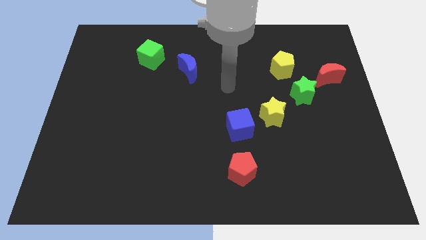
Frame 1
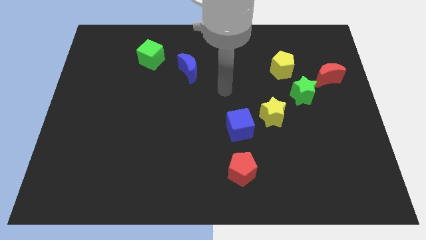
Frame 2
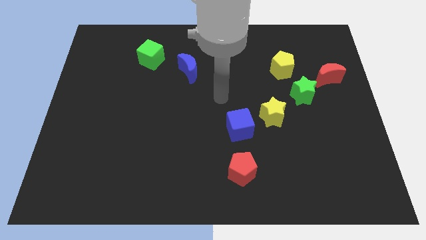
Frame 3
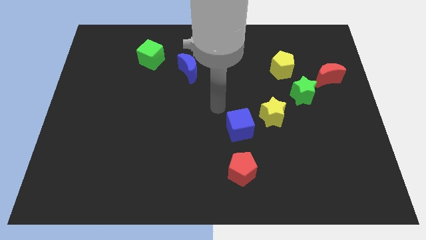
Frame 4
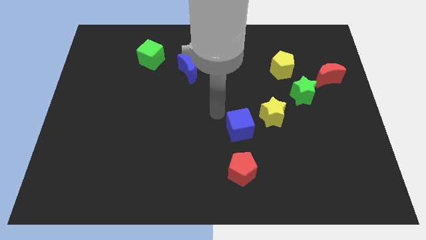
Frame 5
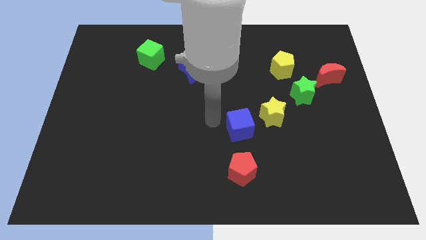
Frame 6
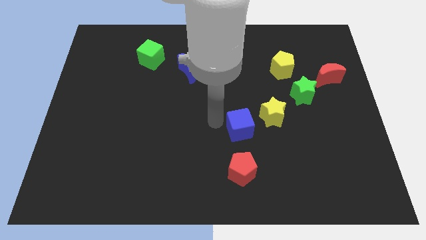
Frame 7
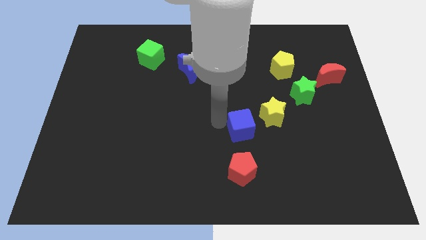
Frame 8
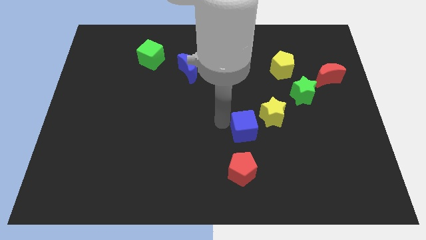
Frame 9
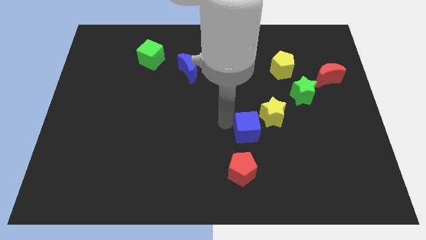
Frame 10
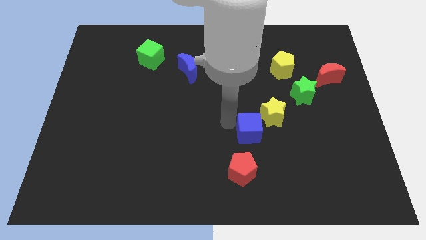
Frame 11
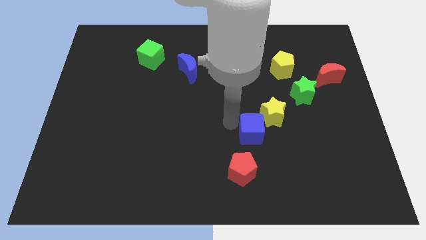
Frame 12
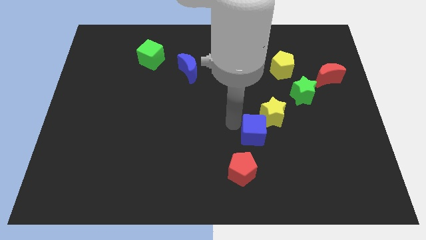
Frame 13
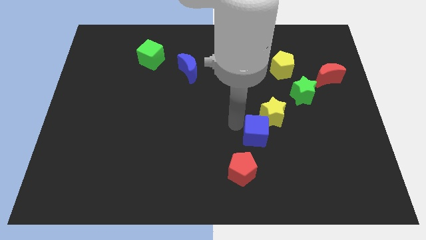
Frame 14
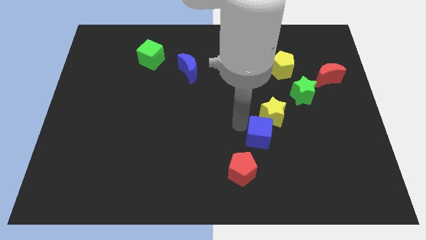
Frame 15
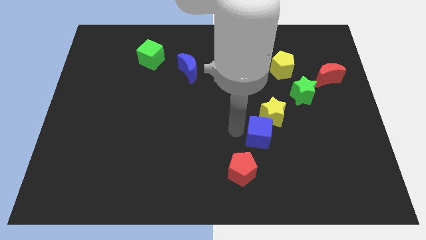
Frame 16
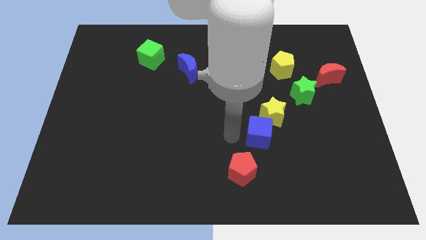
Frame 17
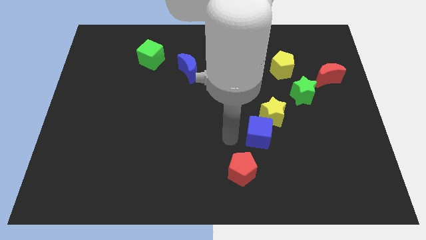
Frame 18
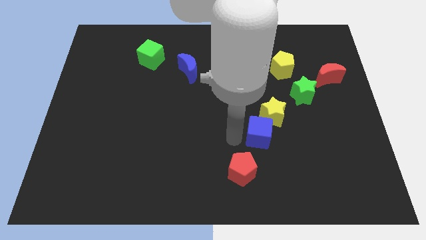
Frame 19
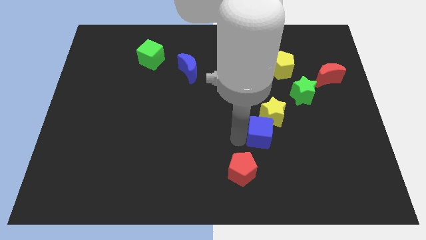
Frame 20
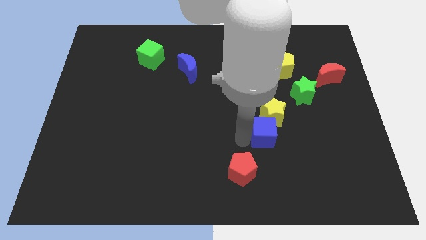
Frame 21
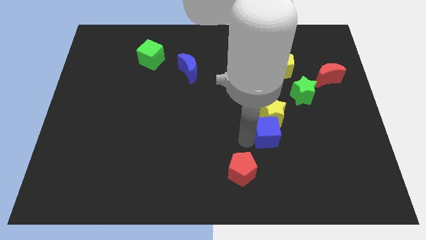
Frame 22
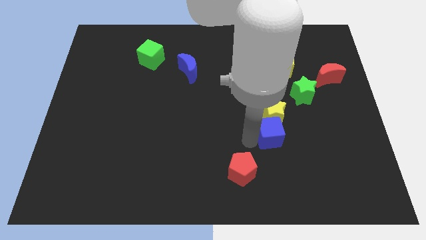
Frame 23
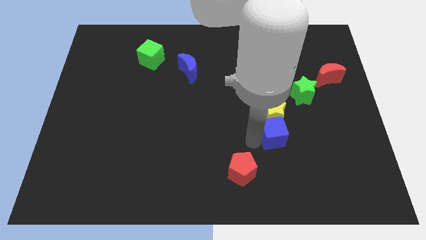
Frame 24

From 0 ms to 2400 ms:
slightly move the blue cube to the right

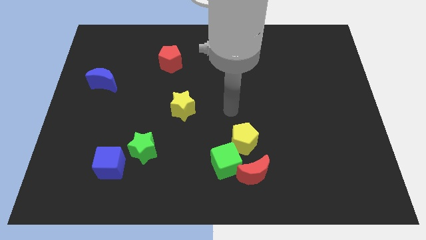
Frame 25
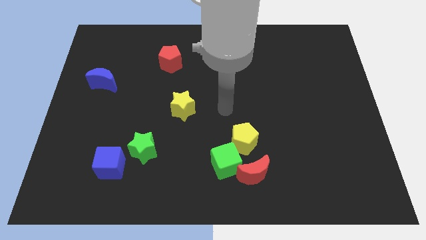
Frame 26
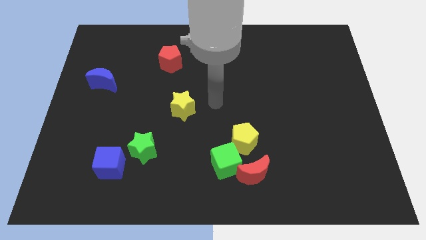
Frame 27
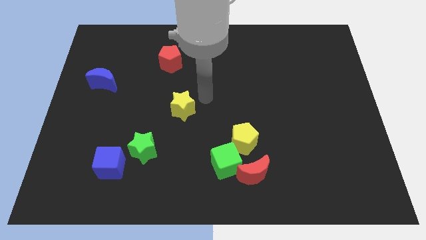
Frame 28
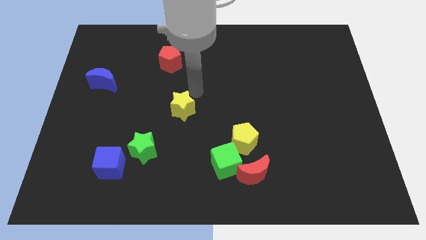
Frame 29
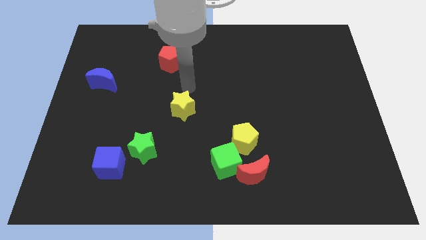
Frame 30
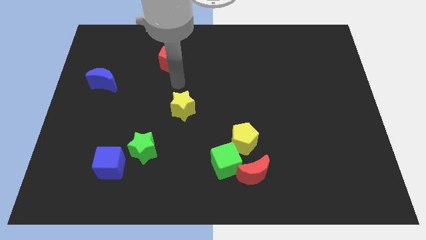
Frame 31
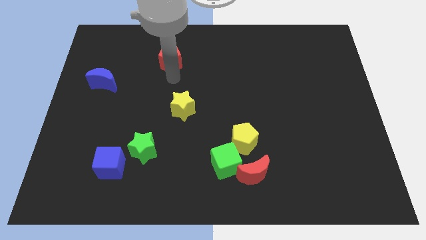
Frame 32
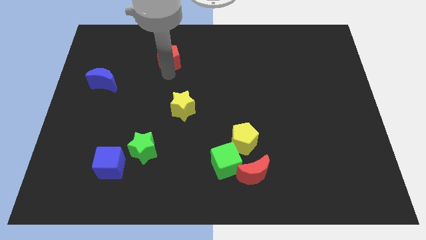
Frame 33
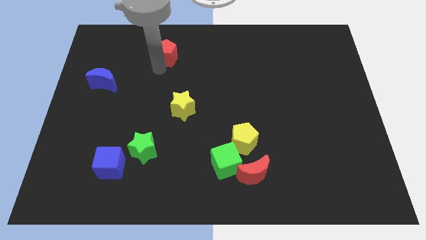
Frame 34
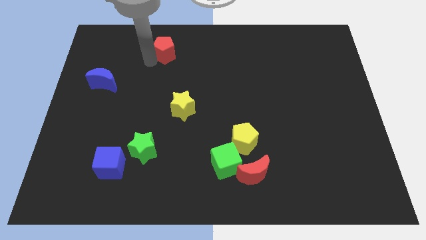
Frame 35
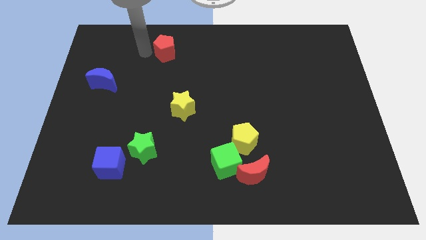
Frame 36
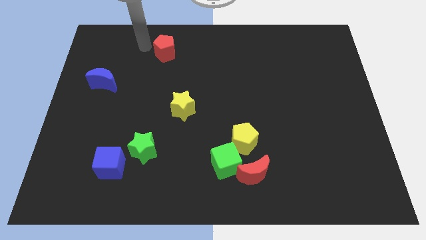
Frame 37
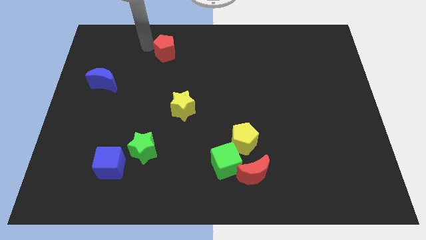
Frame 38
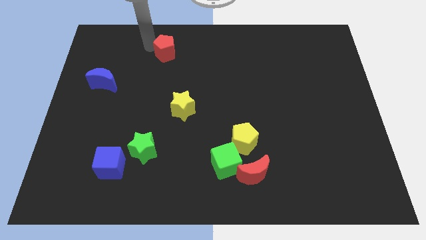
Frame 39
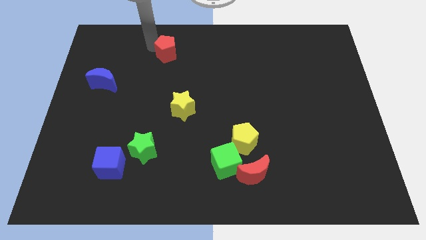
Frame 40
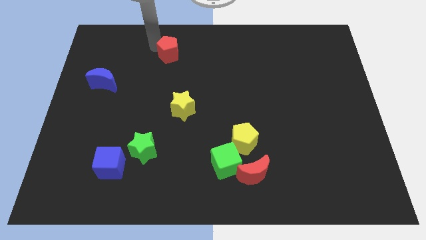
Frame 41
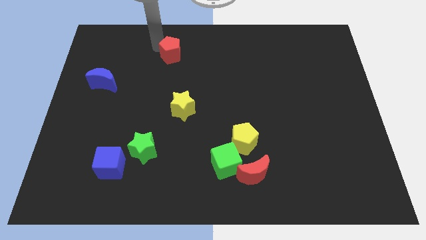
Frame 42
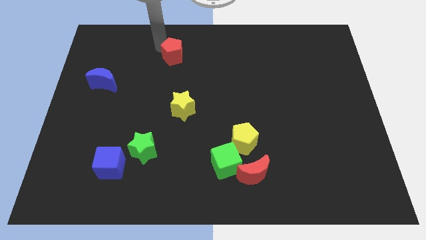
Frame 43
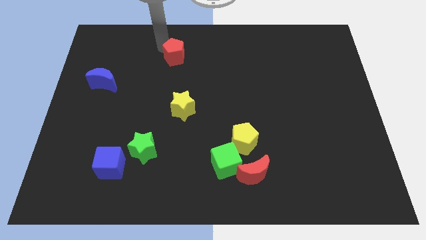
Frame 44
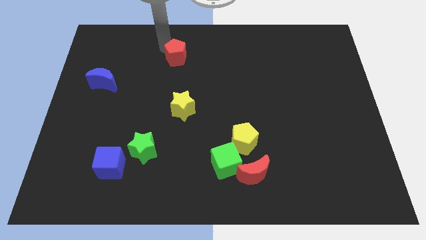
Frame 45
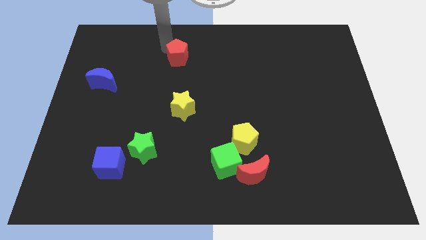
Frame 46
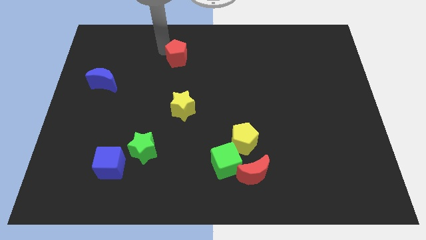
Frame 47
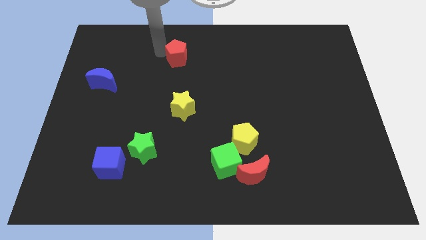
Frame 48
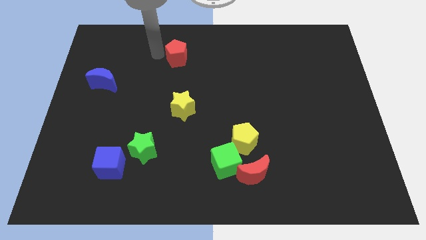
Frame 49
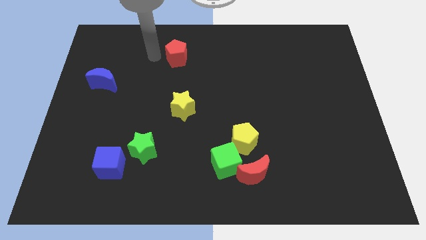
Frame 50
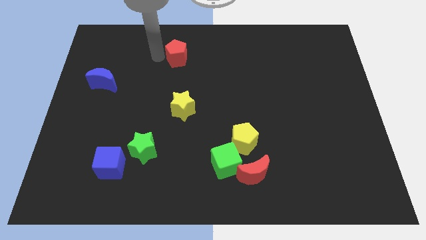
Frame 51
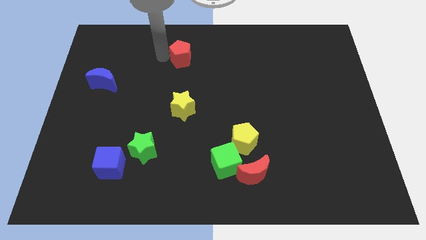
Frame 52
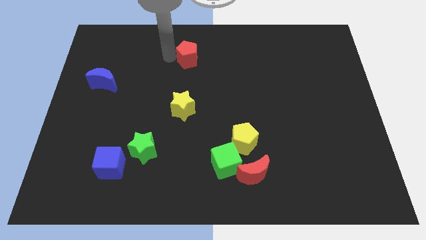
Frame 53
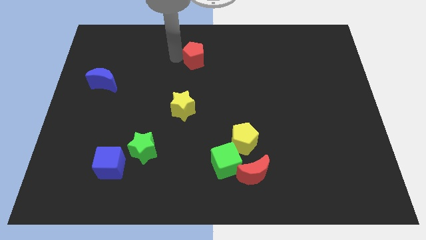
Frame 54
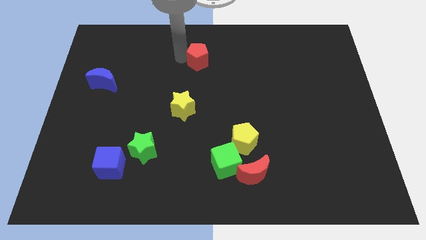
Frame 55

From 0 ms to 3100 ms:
slide the red pentagon to the right somewhat

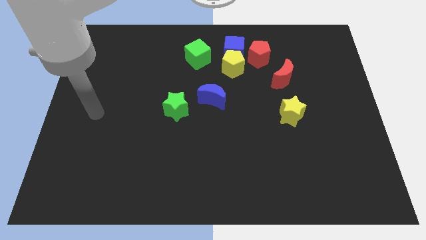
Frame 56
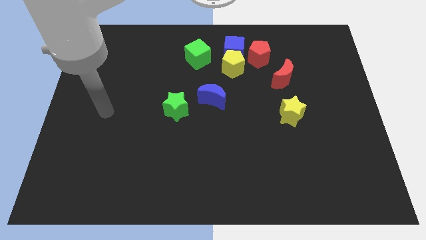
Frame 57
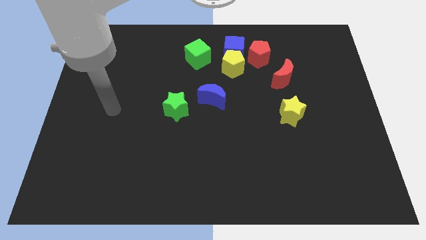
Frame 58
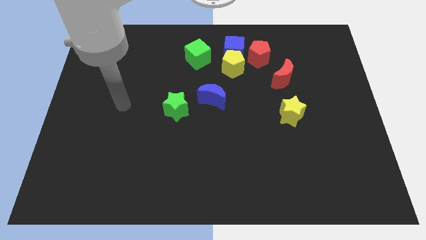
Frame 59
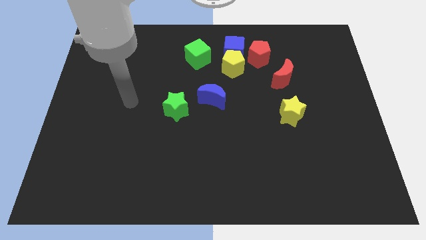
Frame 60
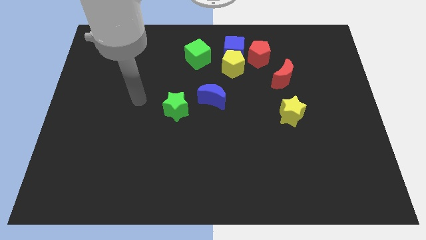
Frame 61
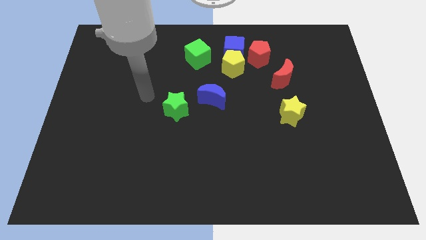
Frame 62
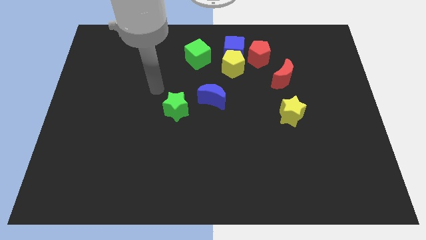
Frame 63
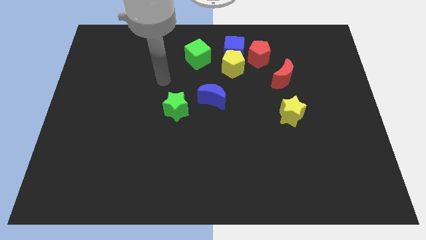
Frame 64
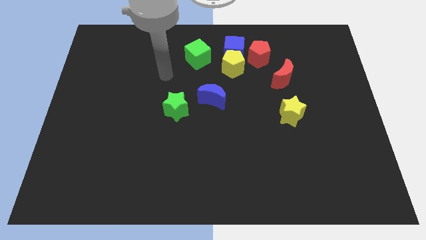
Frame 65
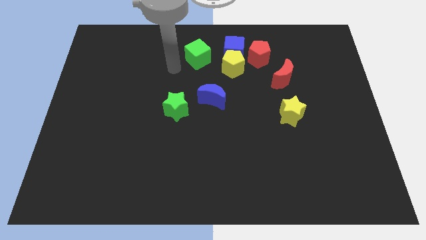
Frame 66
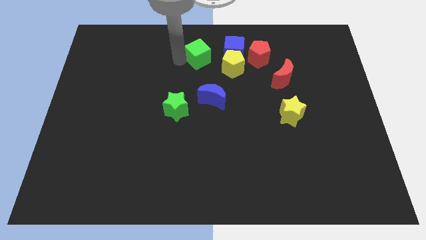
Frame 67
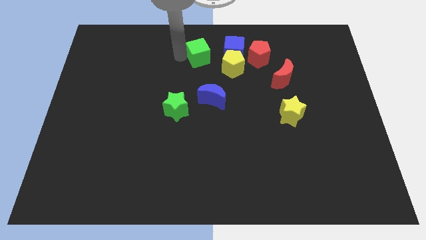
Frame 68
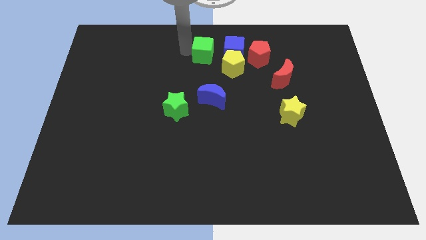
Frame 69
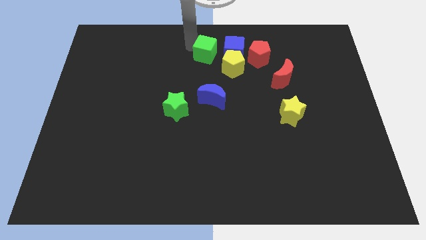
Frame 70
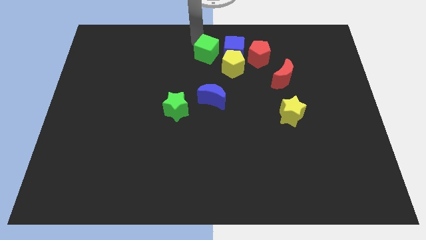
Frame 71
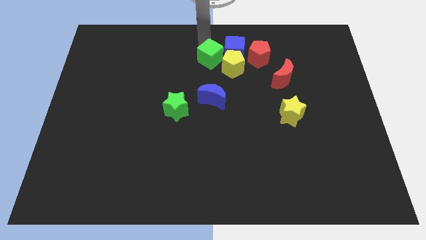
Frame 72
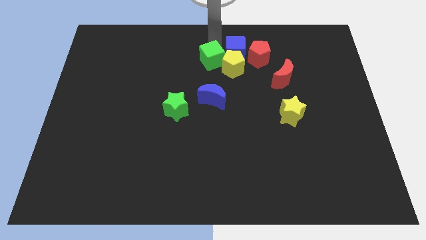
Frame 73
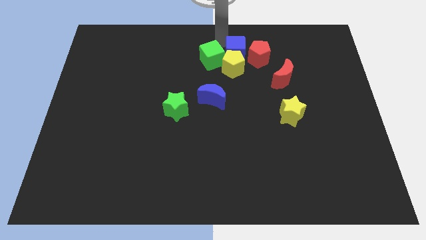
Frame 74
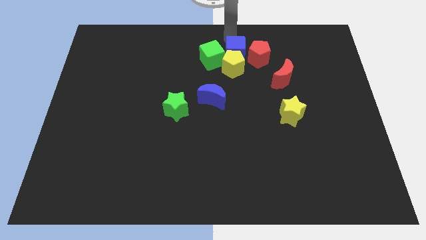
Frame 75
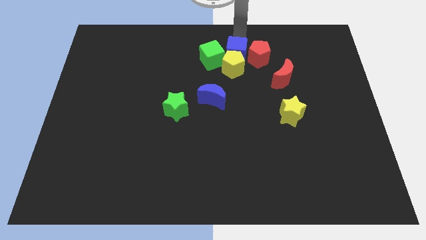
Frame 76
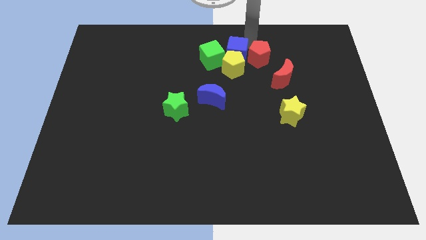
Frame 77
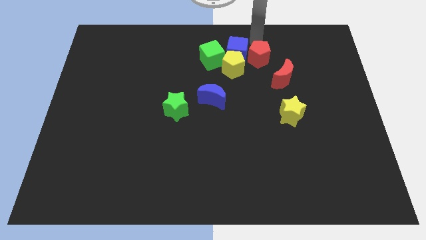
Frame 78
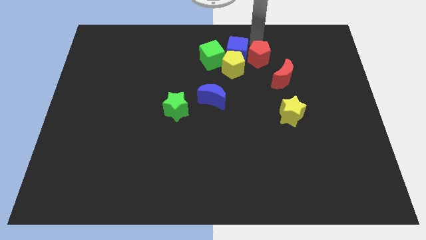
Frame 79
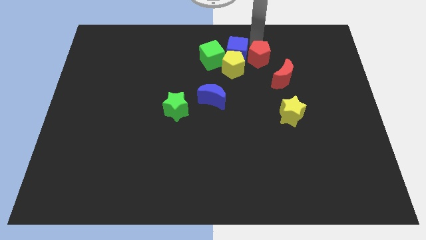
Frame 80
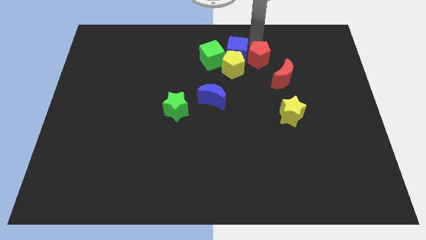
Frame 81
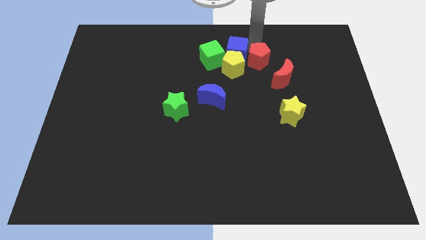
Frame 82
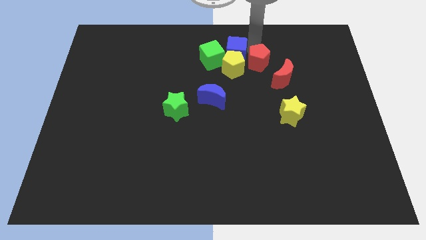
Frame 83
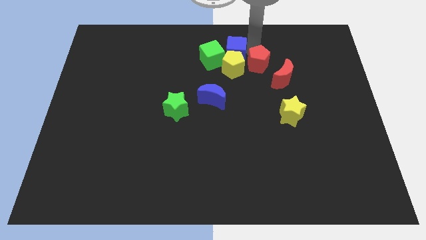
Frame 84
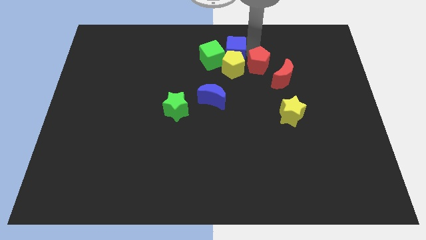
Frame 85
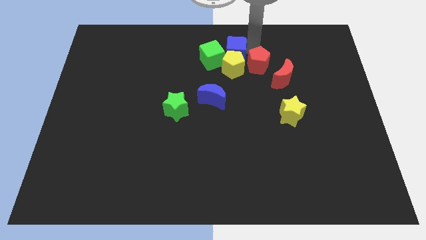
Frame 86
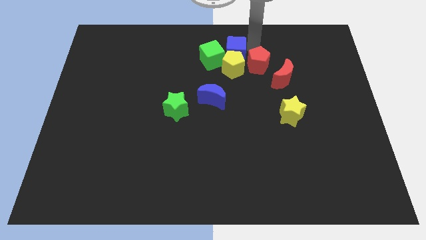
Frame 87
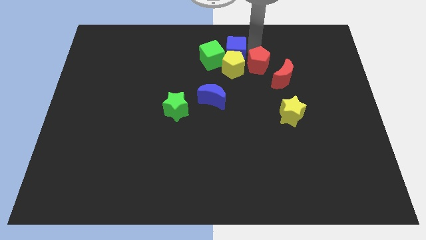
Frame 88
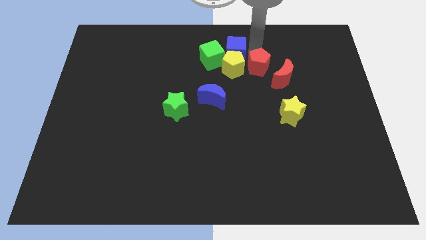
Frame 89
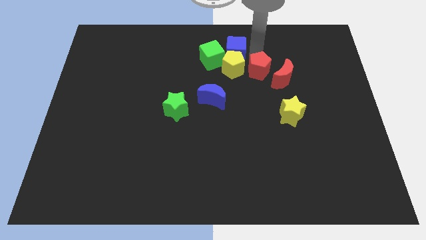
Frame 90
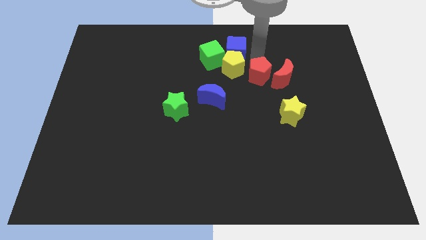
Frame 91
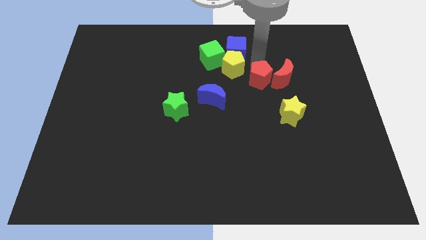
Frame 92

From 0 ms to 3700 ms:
slightly move the red pentagon down
